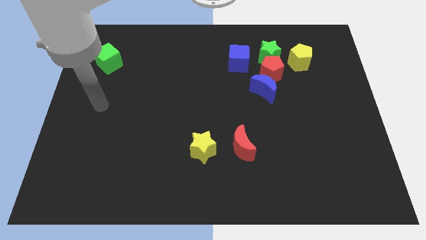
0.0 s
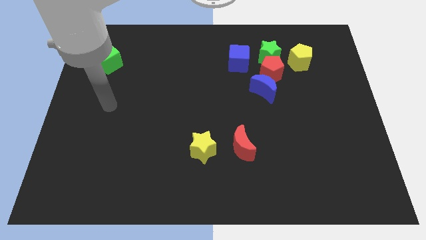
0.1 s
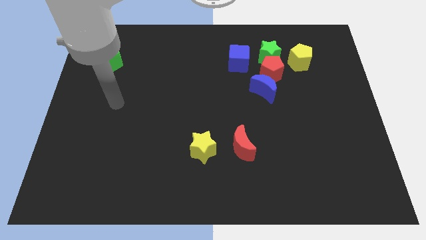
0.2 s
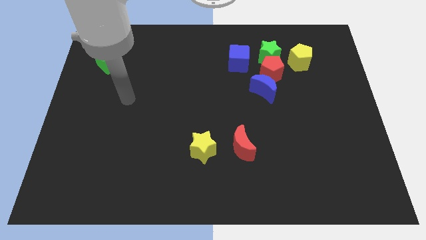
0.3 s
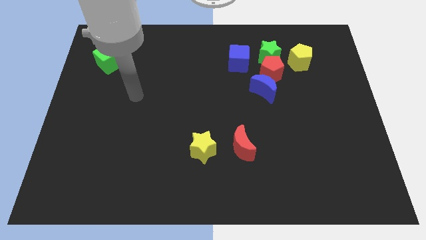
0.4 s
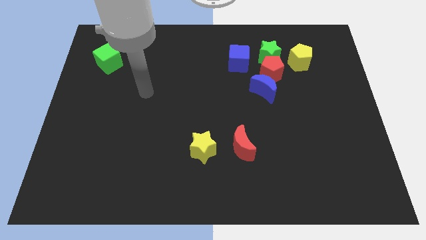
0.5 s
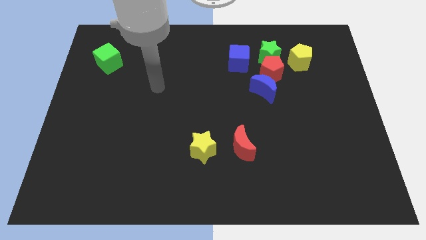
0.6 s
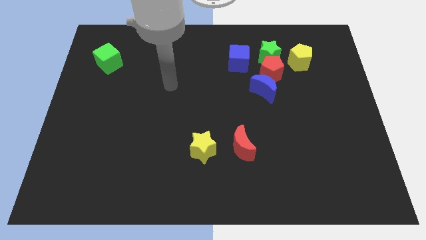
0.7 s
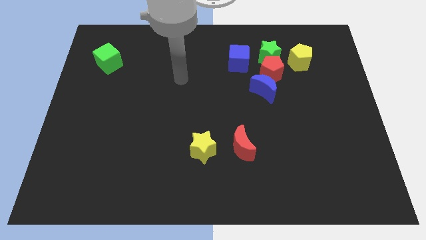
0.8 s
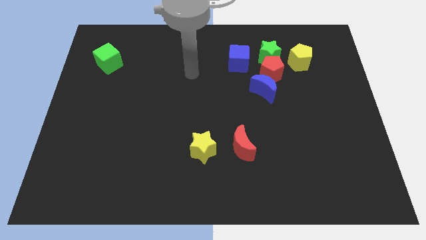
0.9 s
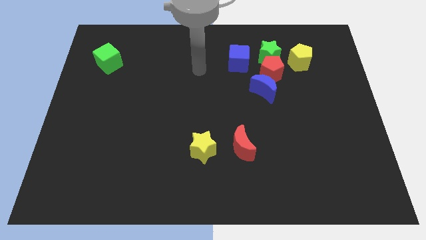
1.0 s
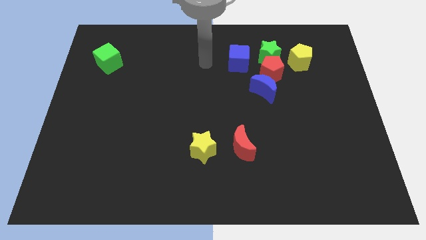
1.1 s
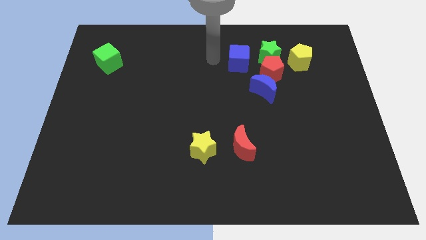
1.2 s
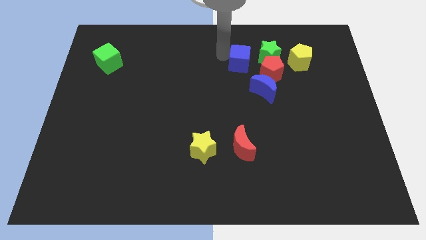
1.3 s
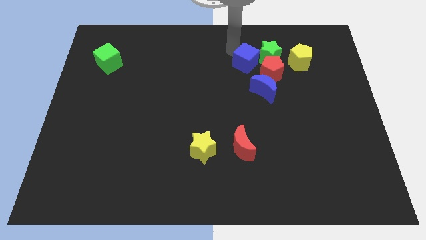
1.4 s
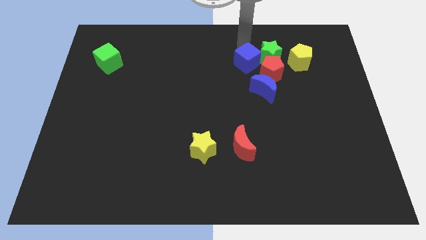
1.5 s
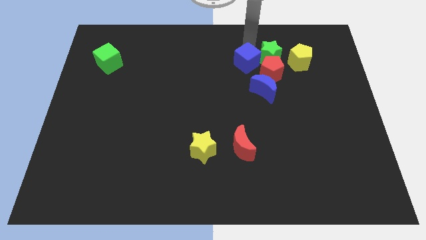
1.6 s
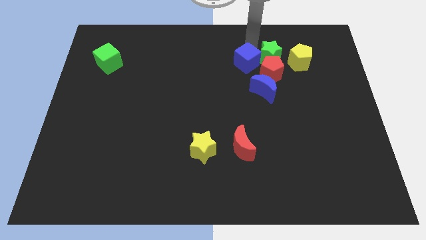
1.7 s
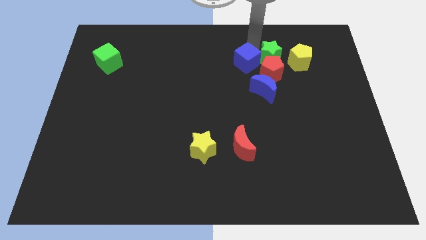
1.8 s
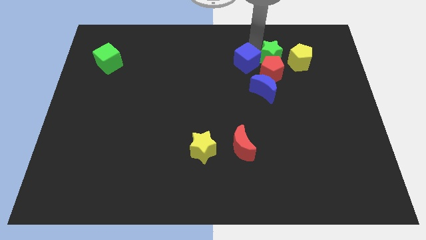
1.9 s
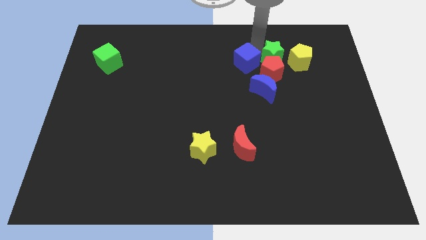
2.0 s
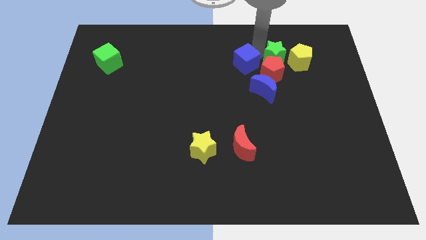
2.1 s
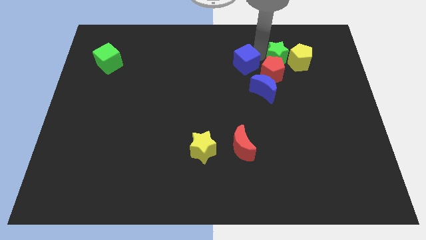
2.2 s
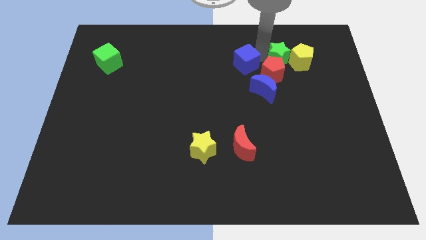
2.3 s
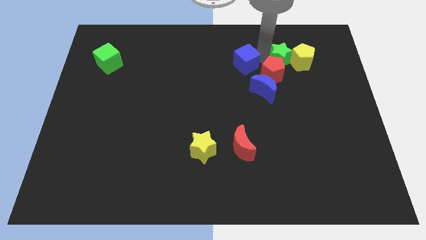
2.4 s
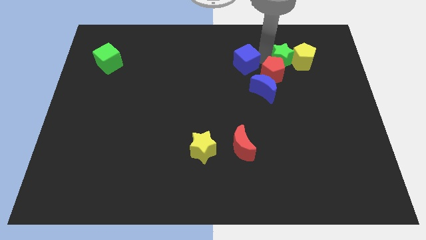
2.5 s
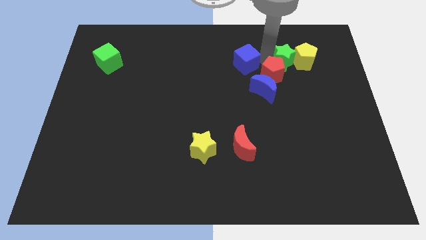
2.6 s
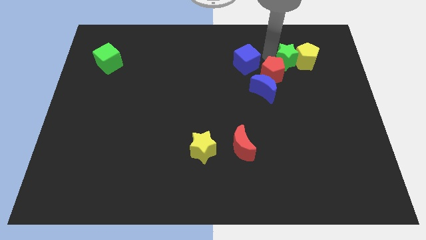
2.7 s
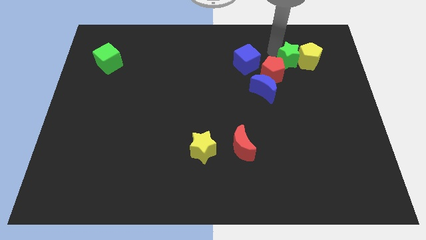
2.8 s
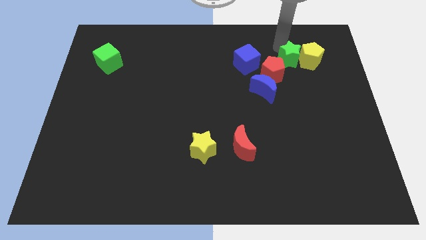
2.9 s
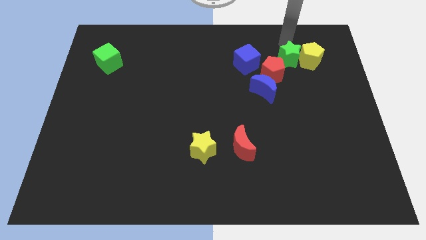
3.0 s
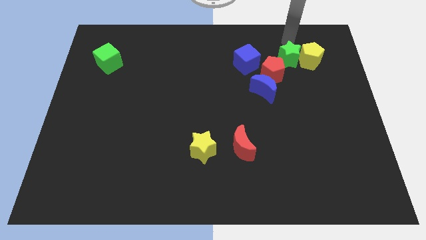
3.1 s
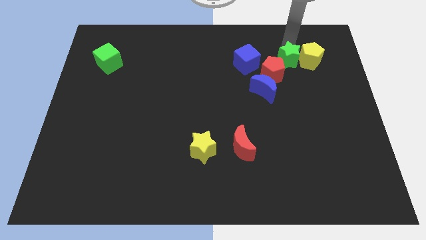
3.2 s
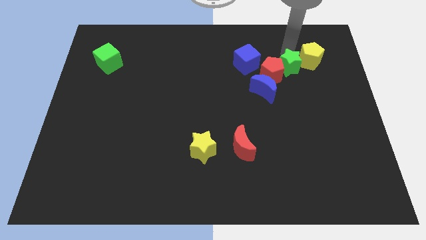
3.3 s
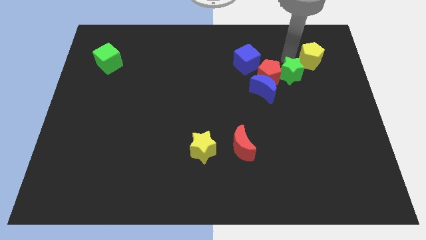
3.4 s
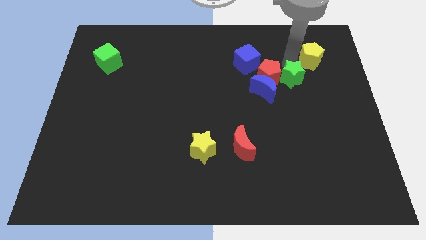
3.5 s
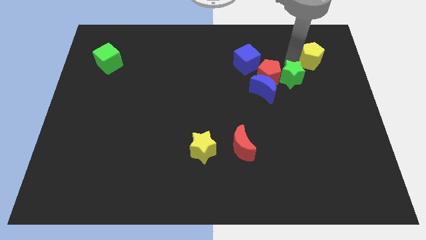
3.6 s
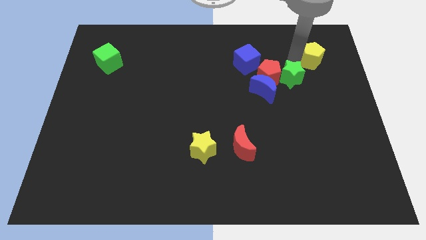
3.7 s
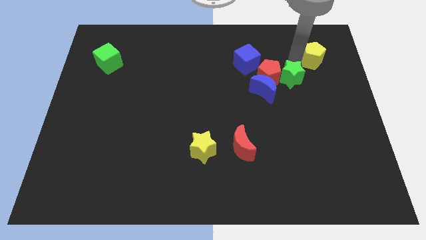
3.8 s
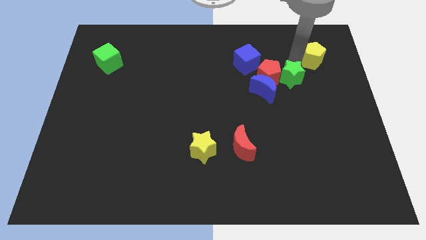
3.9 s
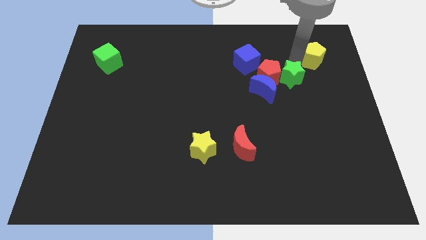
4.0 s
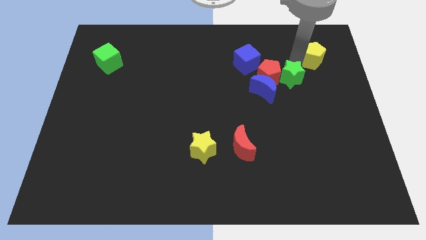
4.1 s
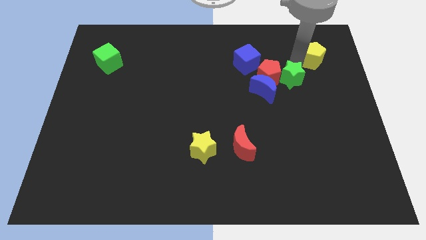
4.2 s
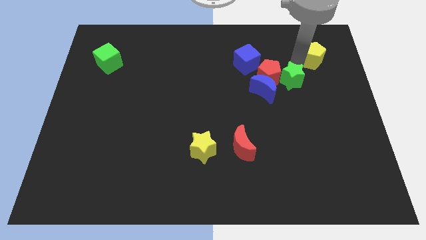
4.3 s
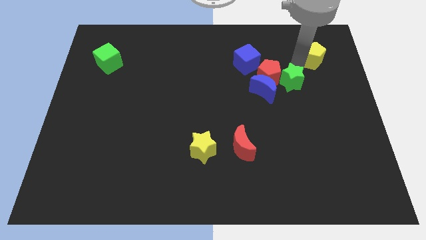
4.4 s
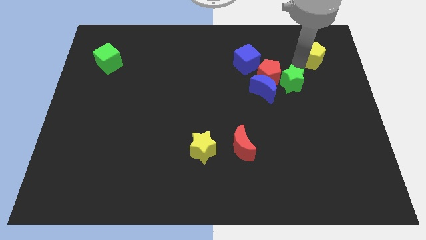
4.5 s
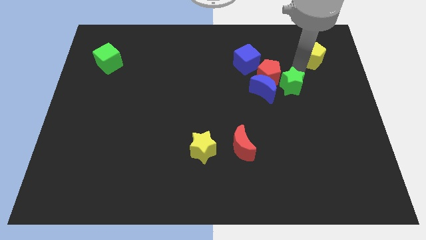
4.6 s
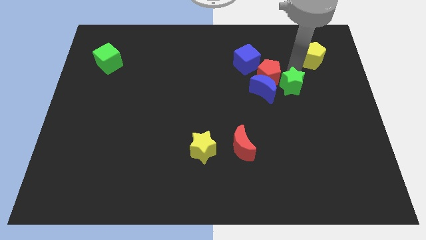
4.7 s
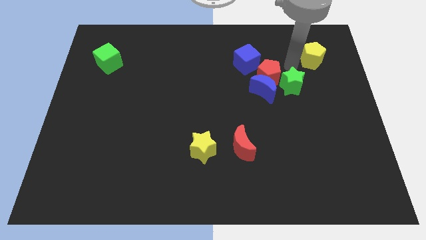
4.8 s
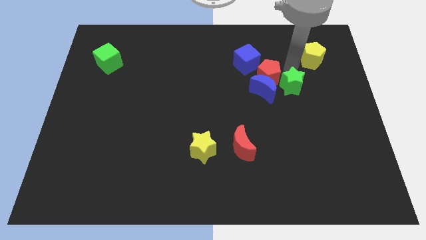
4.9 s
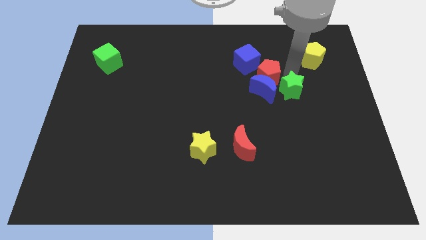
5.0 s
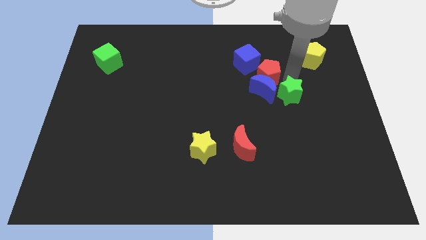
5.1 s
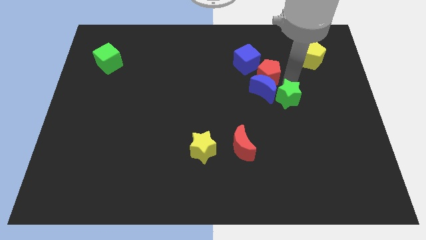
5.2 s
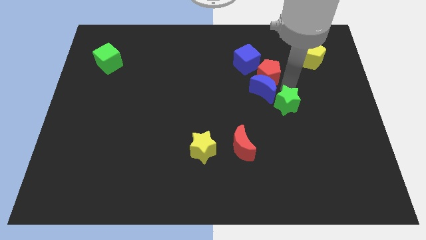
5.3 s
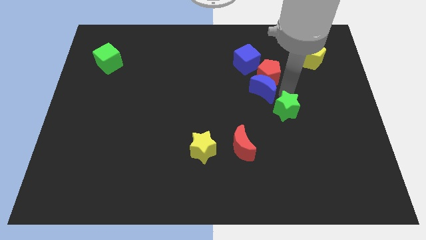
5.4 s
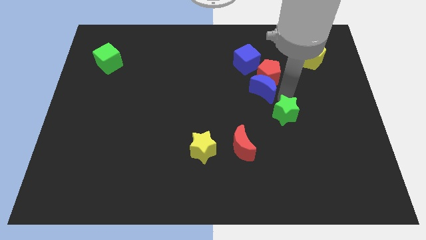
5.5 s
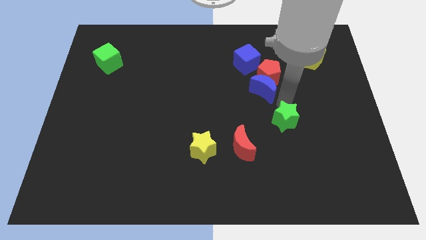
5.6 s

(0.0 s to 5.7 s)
push the green star down

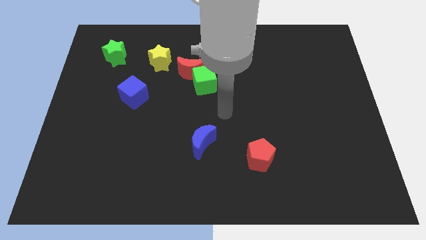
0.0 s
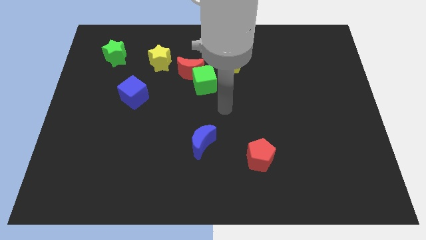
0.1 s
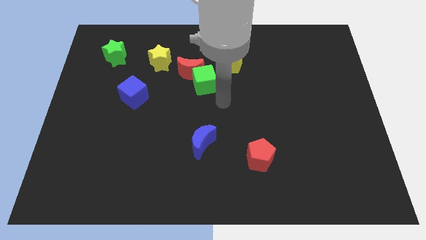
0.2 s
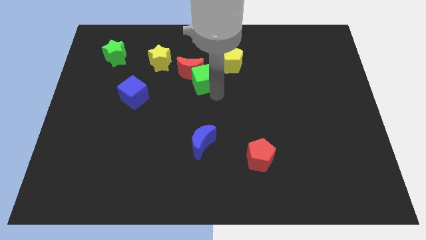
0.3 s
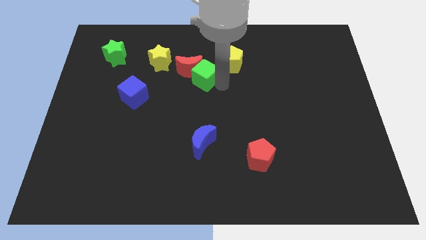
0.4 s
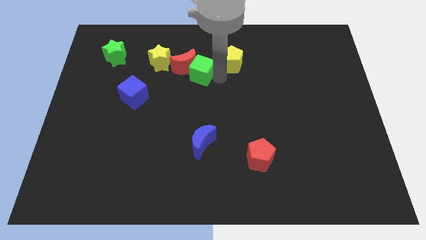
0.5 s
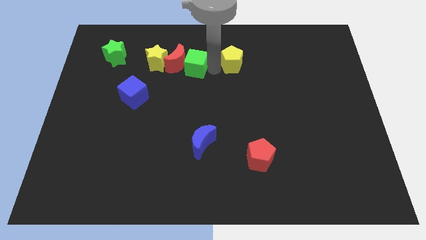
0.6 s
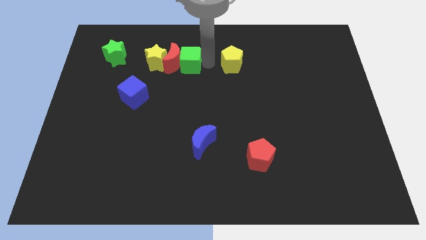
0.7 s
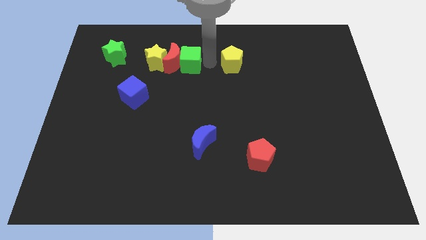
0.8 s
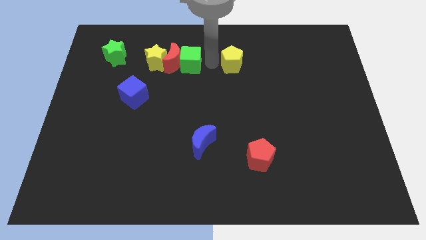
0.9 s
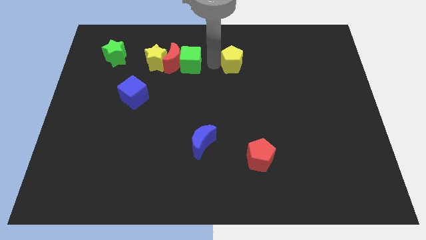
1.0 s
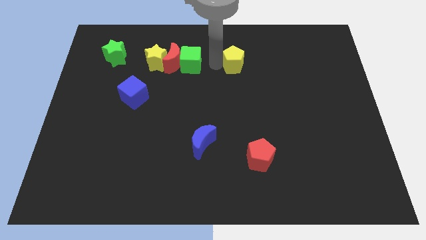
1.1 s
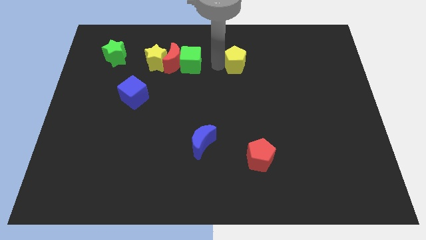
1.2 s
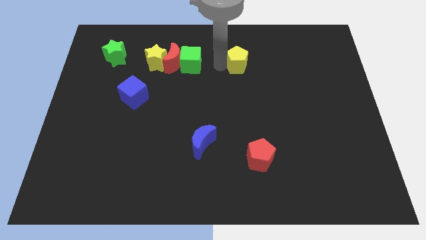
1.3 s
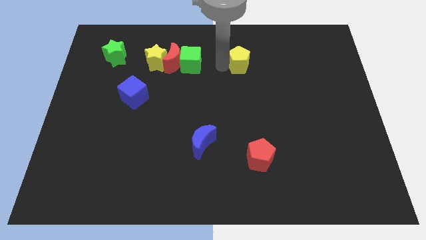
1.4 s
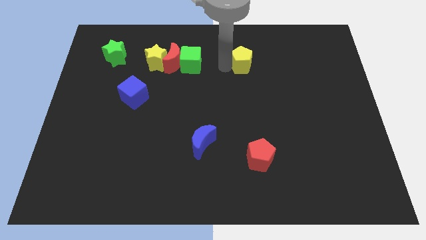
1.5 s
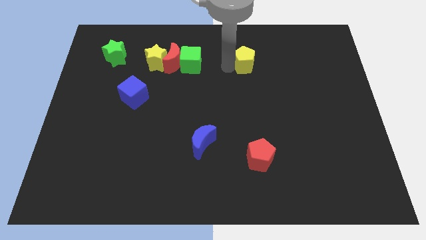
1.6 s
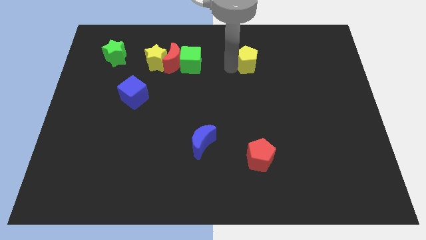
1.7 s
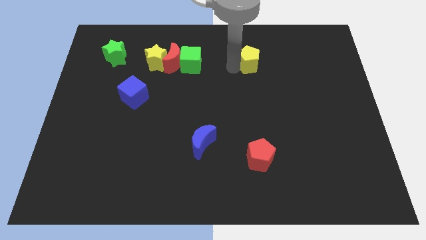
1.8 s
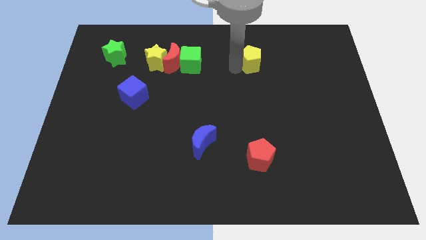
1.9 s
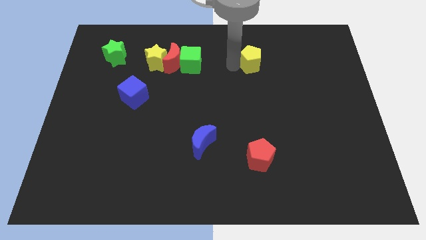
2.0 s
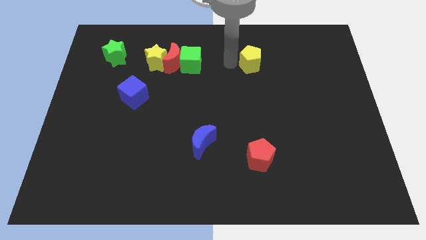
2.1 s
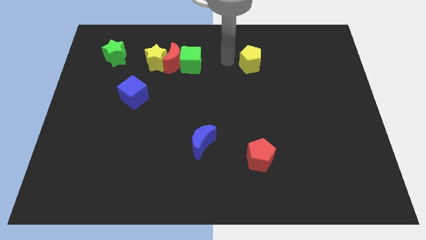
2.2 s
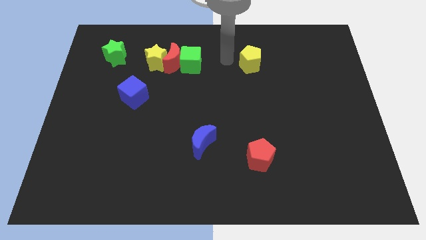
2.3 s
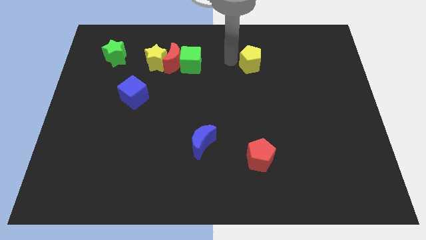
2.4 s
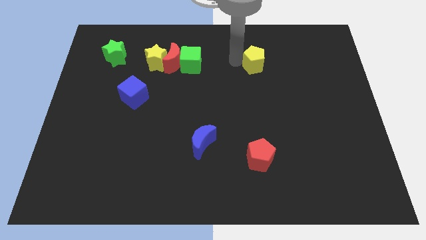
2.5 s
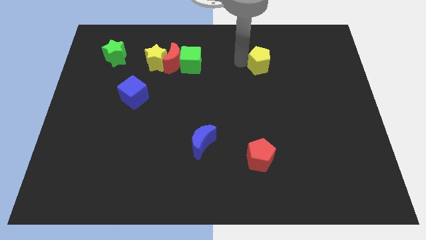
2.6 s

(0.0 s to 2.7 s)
push the yellow pentagon right a little bit

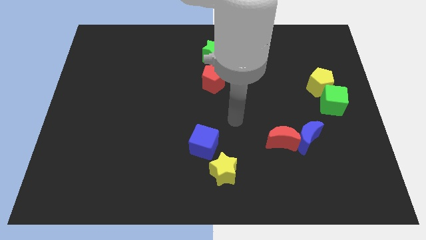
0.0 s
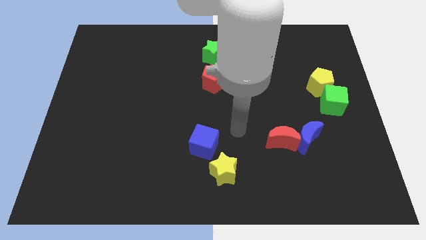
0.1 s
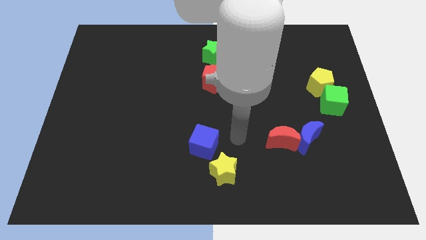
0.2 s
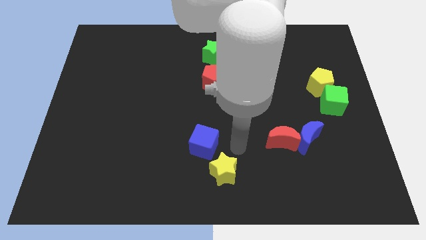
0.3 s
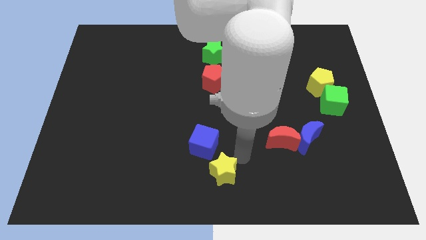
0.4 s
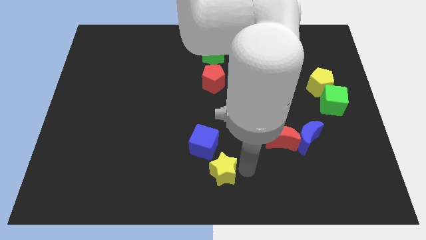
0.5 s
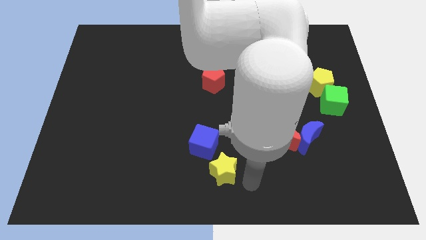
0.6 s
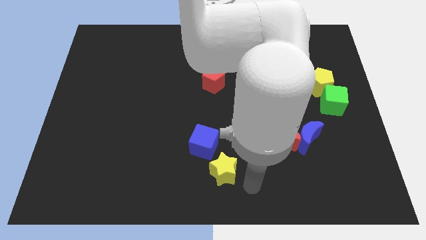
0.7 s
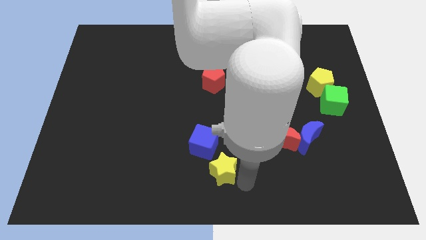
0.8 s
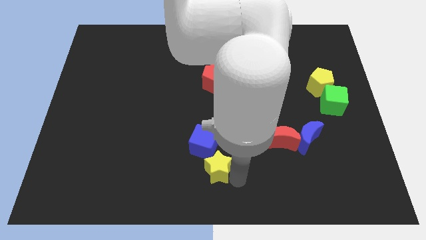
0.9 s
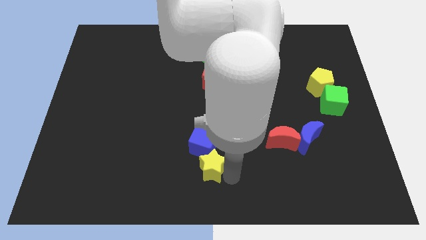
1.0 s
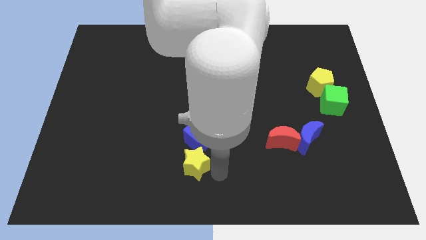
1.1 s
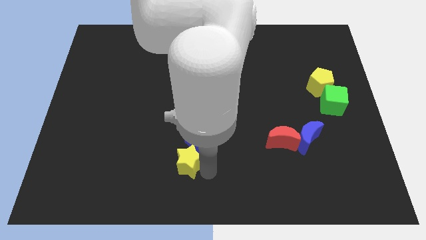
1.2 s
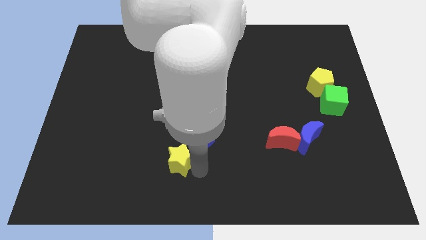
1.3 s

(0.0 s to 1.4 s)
slide the yellow star up and to the left a little
